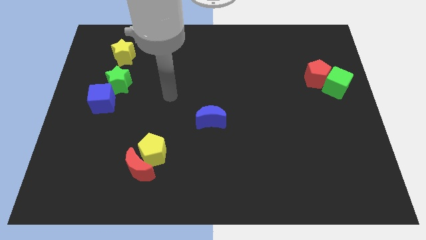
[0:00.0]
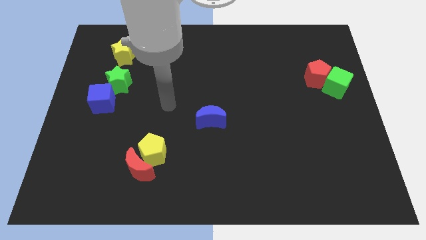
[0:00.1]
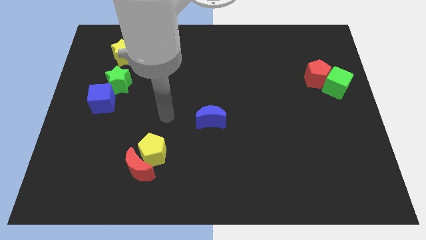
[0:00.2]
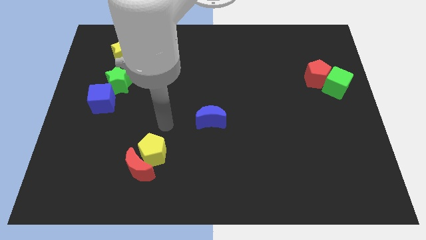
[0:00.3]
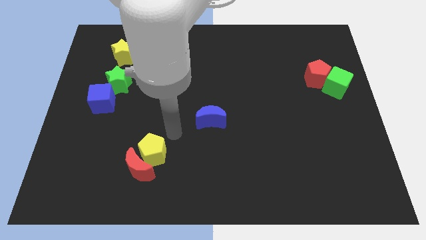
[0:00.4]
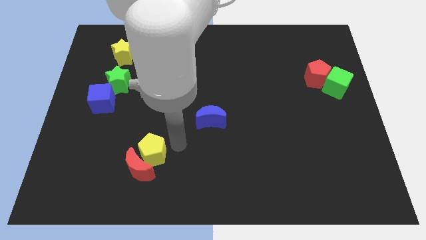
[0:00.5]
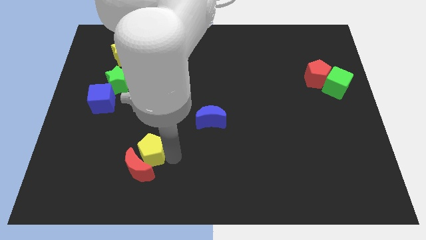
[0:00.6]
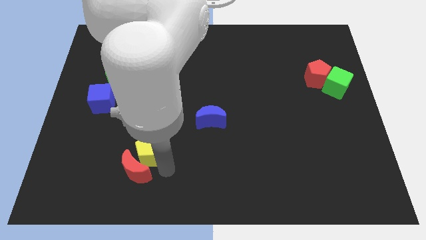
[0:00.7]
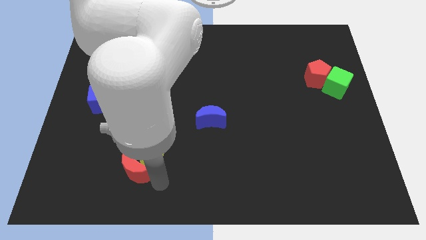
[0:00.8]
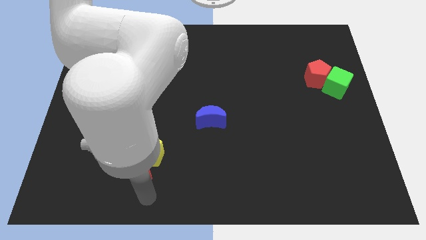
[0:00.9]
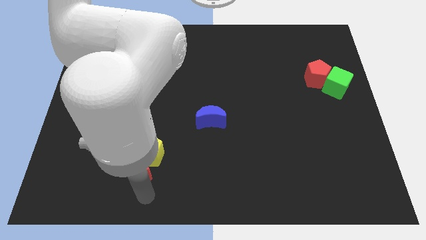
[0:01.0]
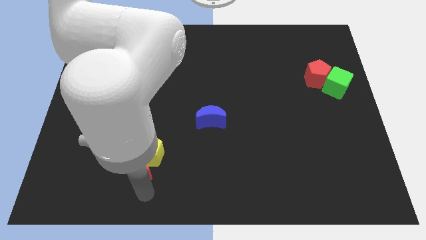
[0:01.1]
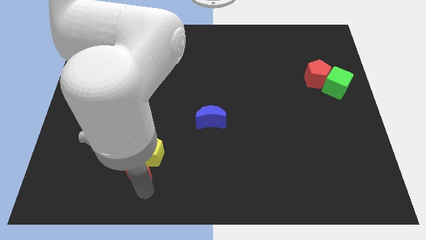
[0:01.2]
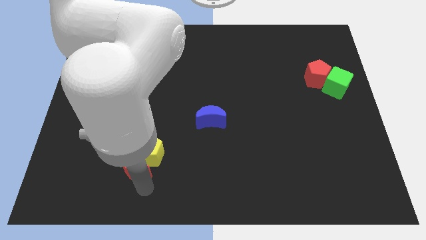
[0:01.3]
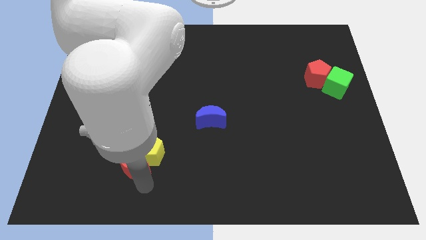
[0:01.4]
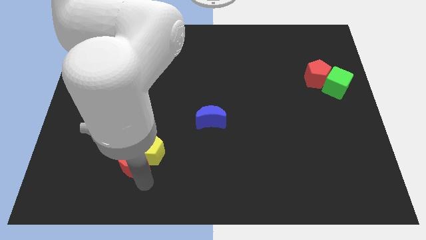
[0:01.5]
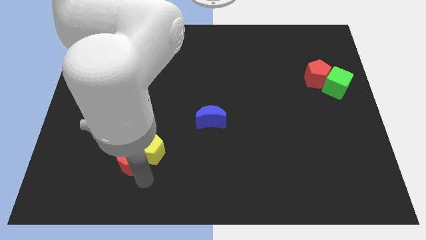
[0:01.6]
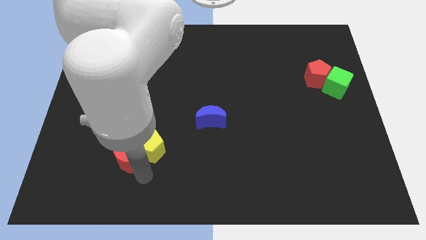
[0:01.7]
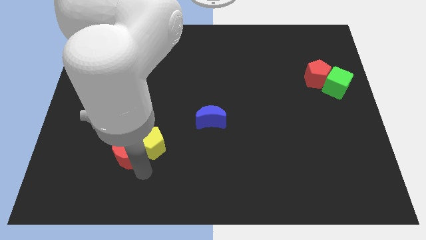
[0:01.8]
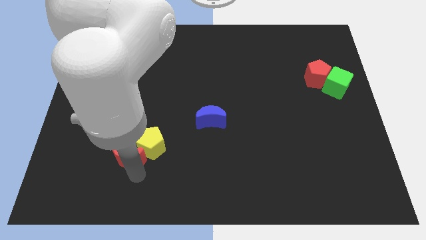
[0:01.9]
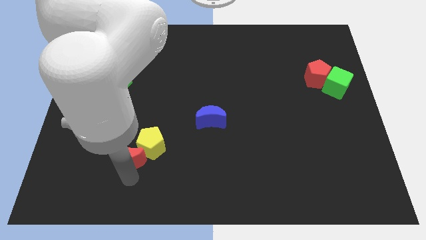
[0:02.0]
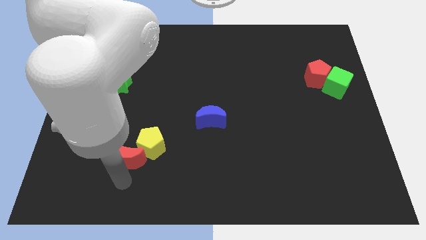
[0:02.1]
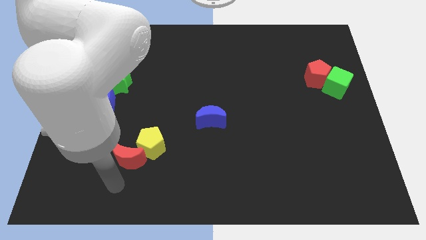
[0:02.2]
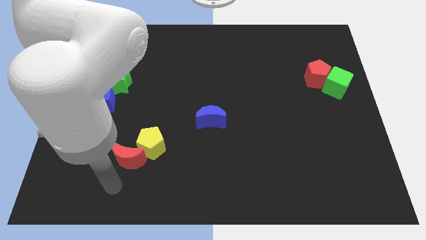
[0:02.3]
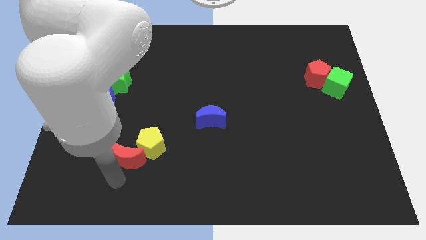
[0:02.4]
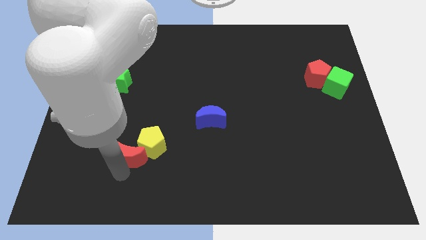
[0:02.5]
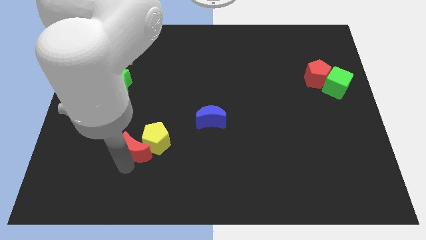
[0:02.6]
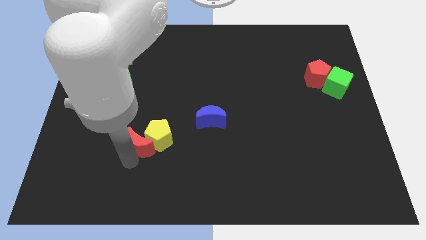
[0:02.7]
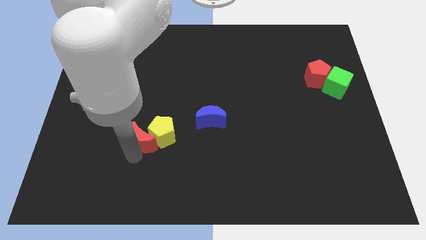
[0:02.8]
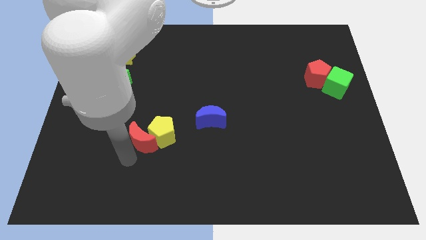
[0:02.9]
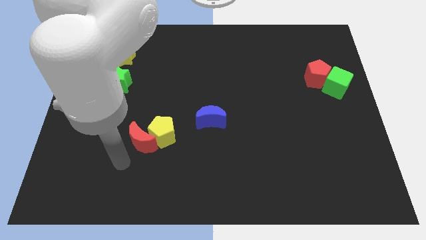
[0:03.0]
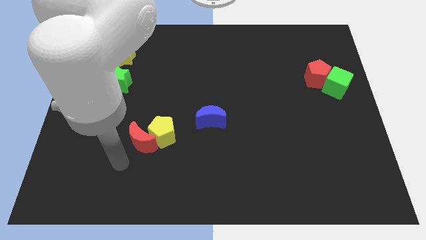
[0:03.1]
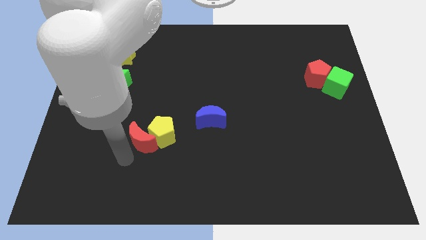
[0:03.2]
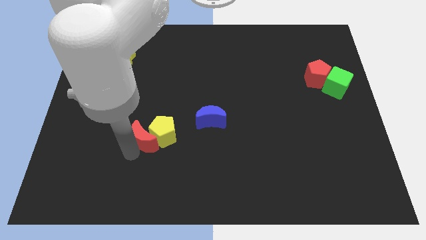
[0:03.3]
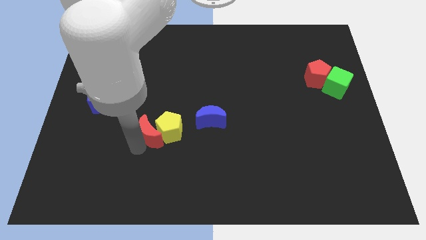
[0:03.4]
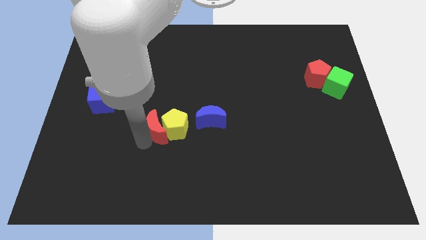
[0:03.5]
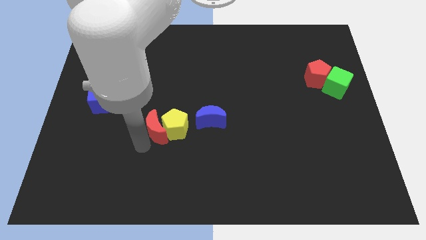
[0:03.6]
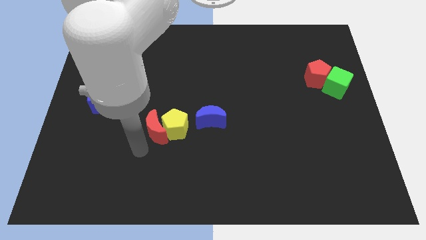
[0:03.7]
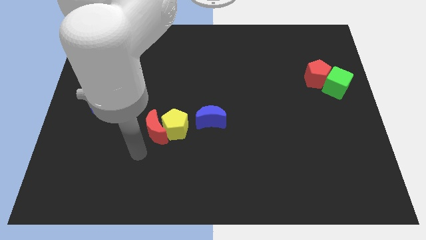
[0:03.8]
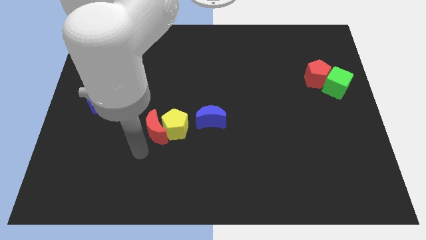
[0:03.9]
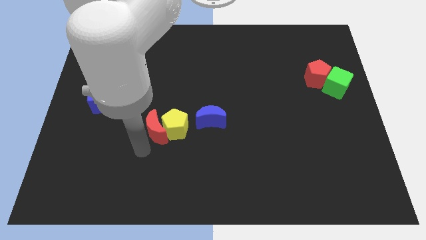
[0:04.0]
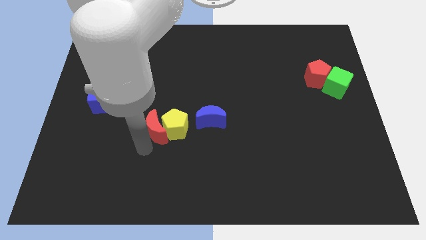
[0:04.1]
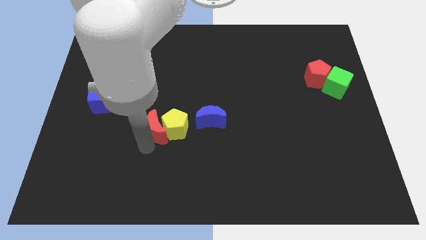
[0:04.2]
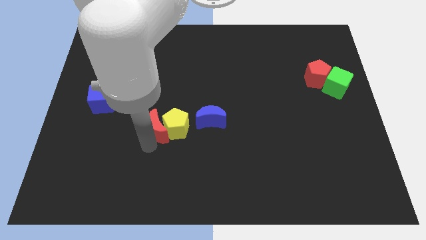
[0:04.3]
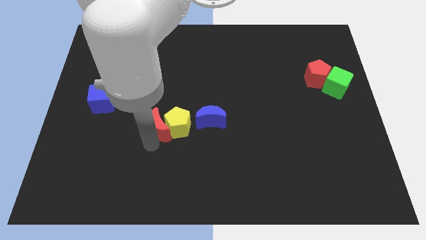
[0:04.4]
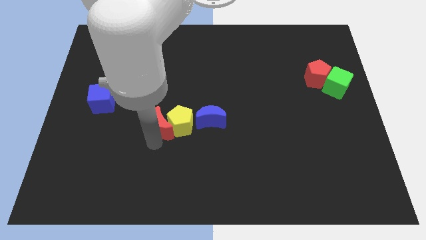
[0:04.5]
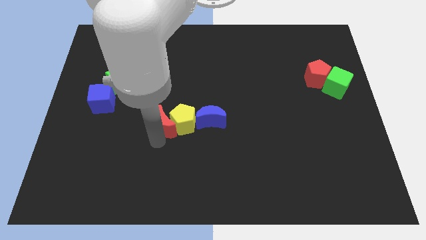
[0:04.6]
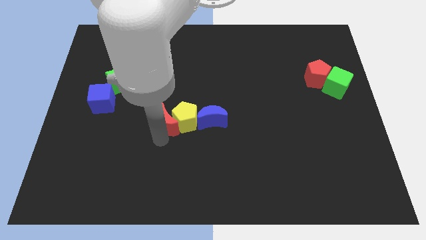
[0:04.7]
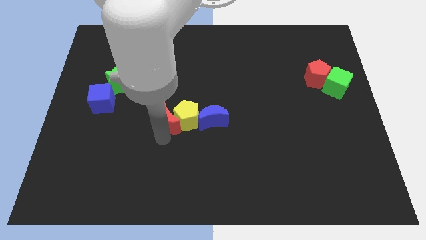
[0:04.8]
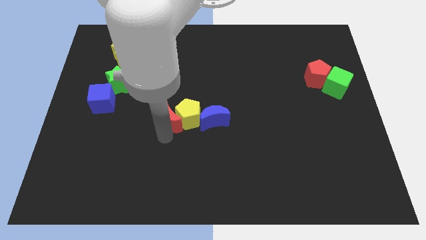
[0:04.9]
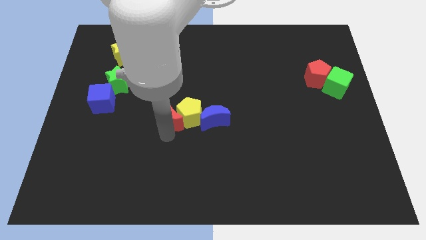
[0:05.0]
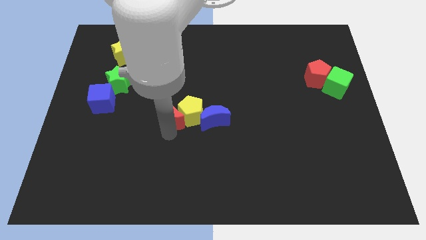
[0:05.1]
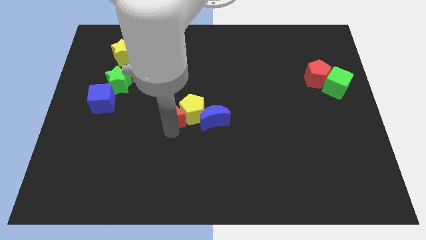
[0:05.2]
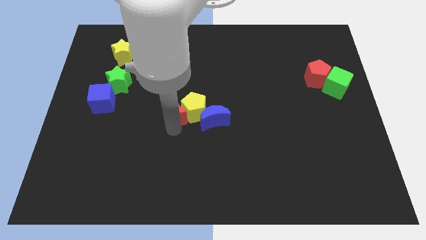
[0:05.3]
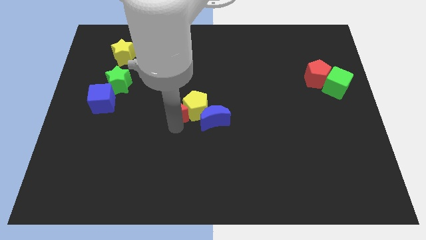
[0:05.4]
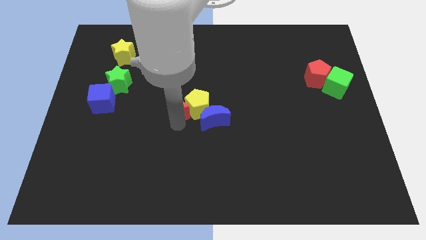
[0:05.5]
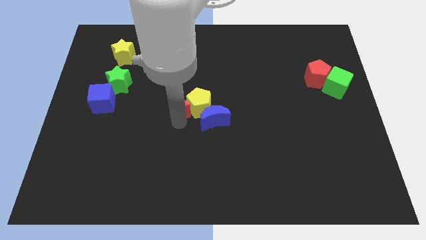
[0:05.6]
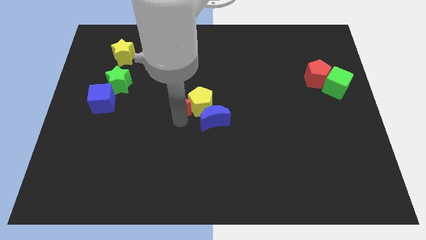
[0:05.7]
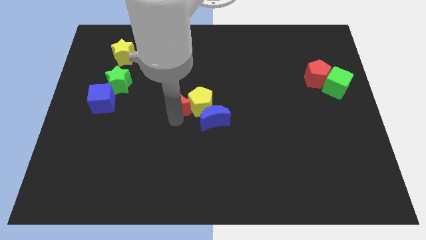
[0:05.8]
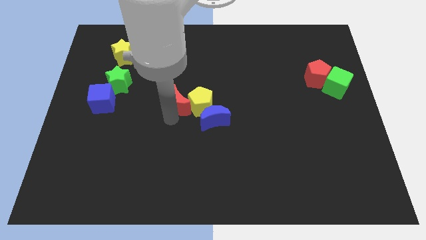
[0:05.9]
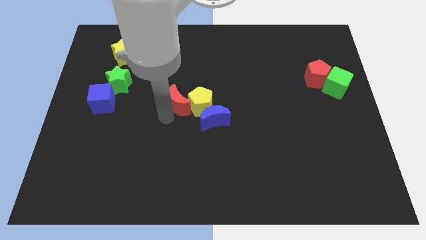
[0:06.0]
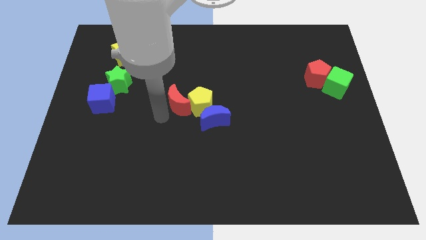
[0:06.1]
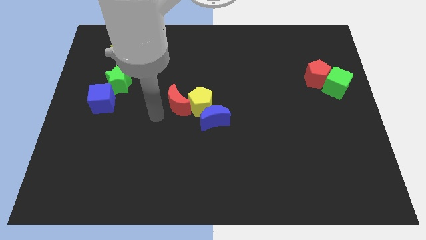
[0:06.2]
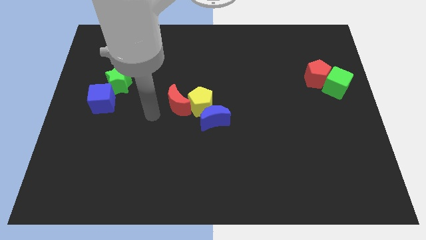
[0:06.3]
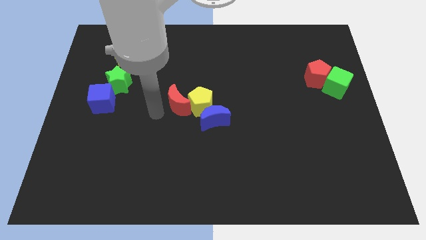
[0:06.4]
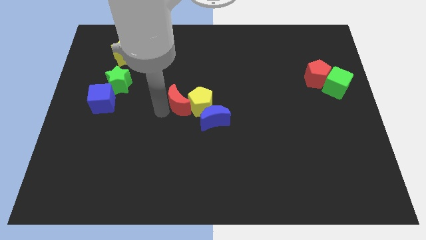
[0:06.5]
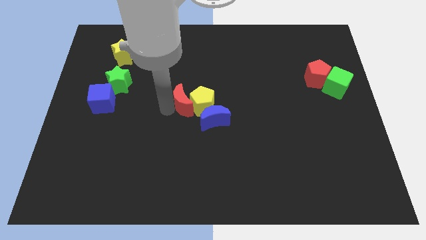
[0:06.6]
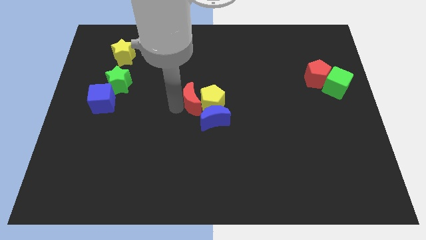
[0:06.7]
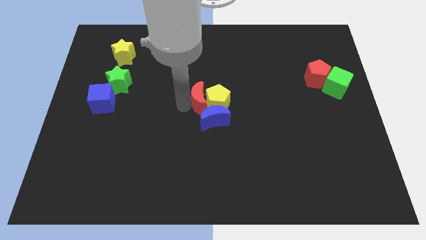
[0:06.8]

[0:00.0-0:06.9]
push the red moon upwards and to the right diagonally

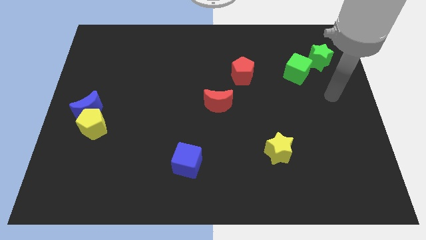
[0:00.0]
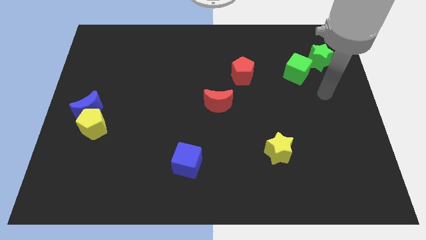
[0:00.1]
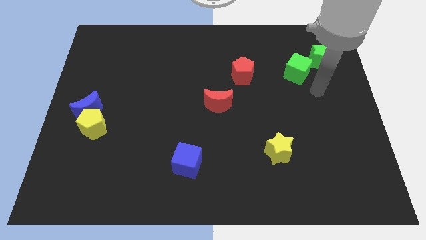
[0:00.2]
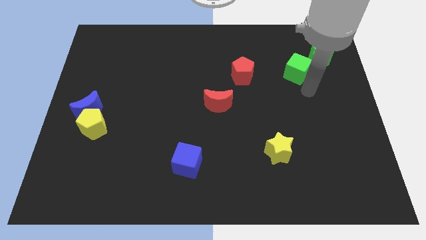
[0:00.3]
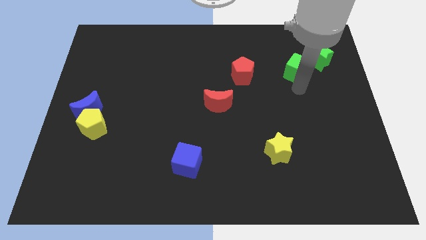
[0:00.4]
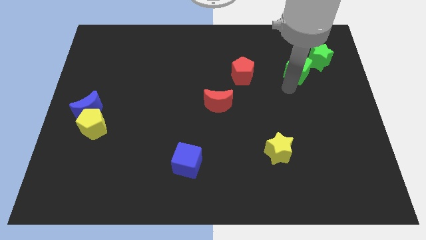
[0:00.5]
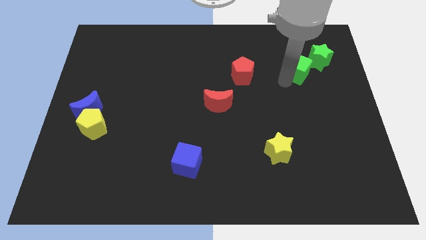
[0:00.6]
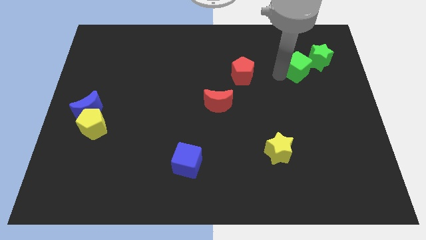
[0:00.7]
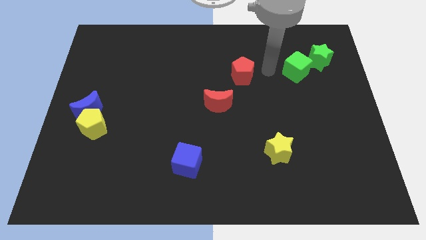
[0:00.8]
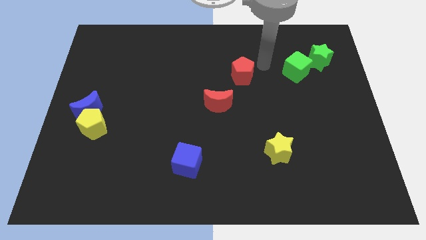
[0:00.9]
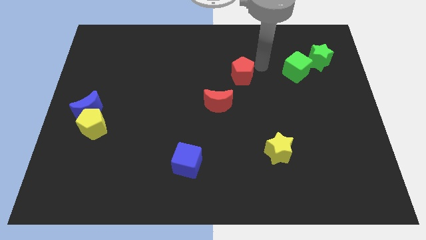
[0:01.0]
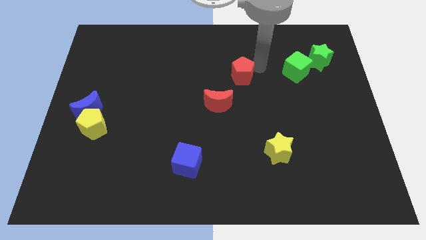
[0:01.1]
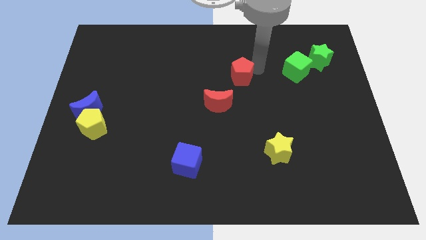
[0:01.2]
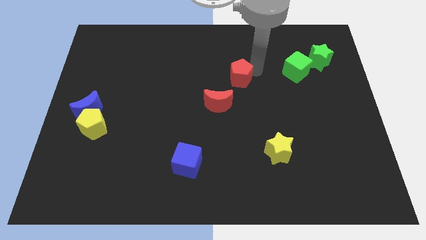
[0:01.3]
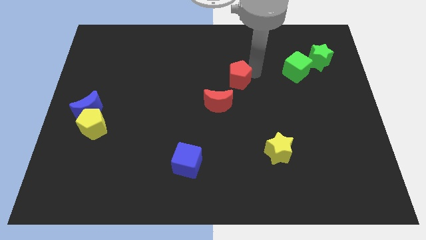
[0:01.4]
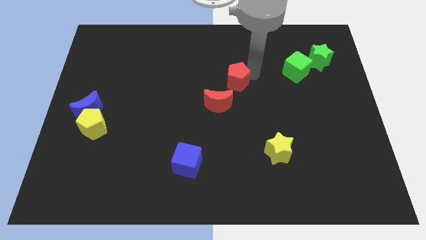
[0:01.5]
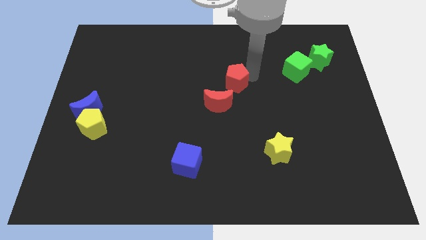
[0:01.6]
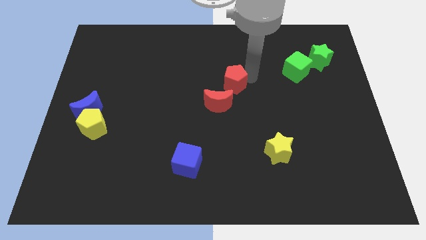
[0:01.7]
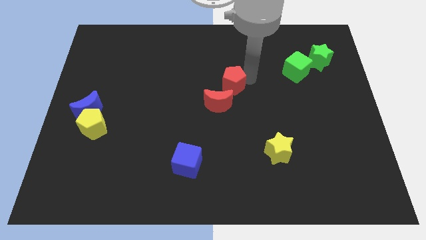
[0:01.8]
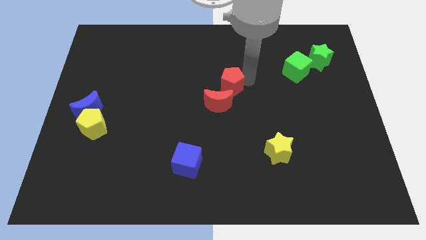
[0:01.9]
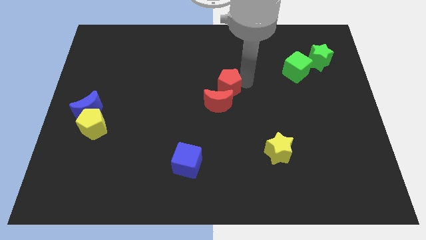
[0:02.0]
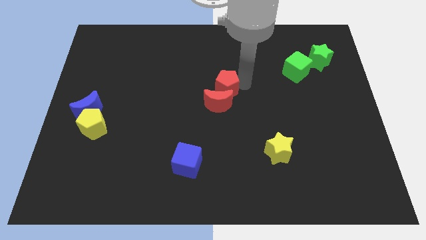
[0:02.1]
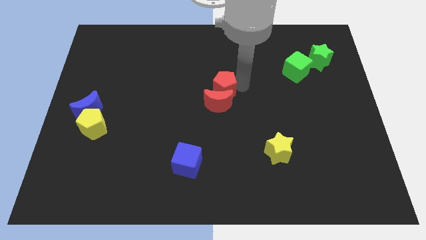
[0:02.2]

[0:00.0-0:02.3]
slide the red pentagon a little bit down and left diagonally
